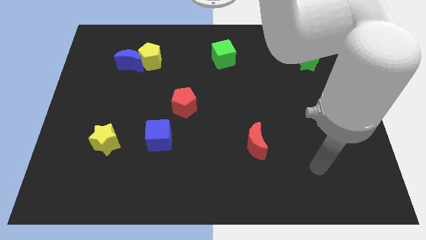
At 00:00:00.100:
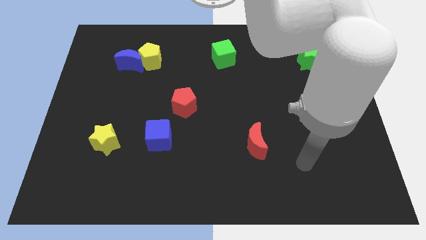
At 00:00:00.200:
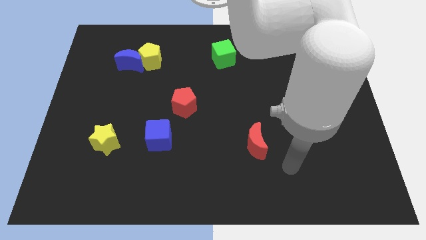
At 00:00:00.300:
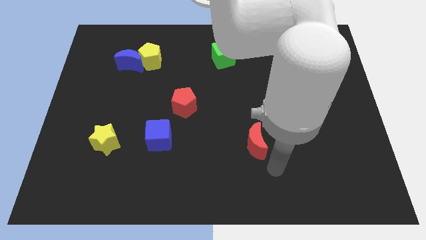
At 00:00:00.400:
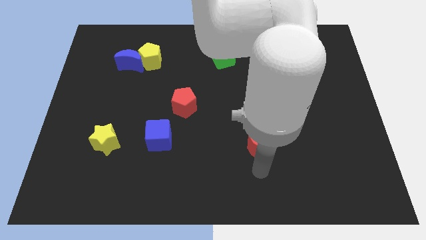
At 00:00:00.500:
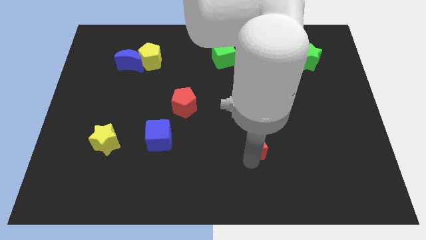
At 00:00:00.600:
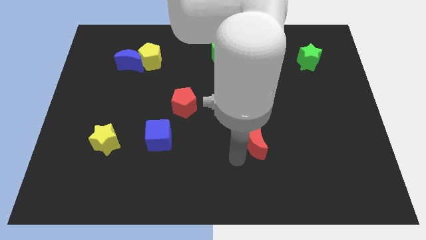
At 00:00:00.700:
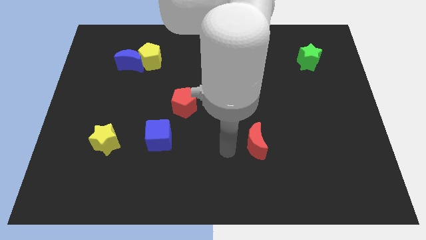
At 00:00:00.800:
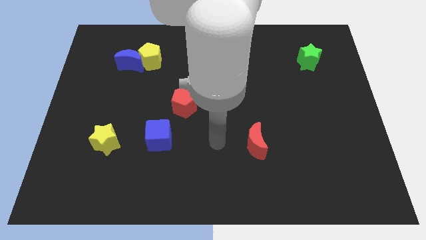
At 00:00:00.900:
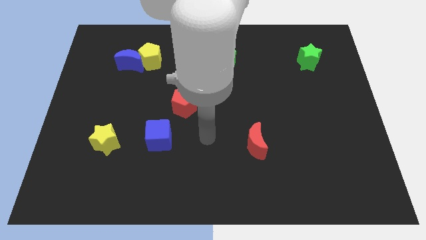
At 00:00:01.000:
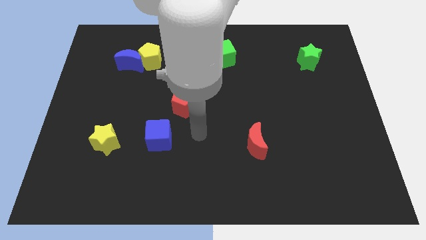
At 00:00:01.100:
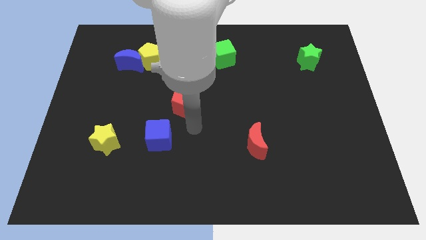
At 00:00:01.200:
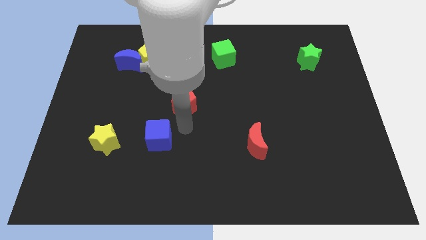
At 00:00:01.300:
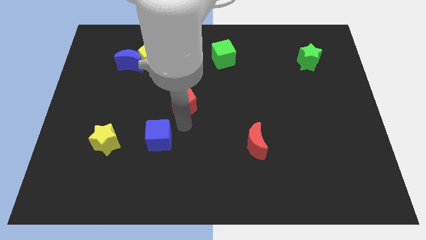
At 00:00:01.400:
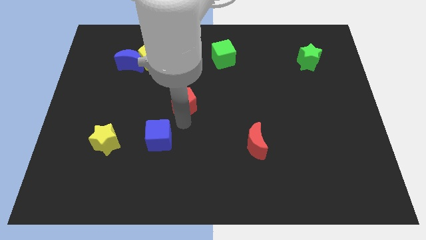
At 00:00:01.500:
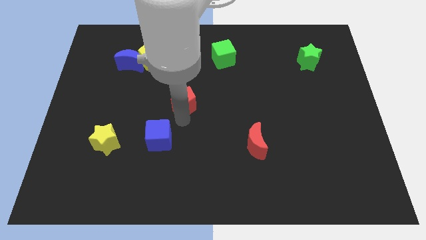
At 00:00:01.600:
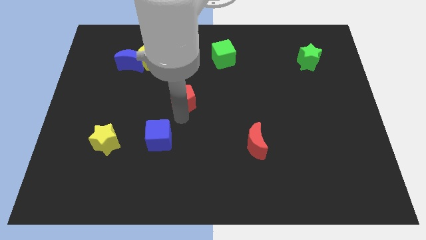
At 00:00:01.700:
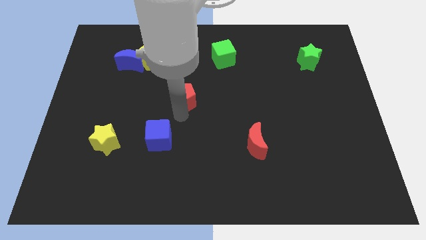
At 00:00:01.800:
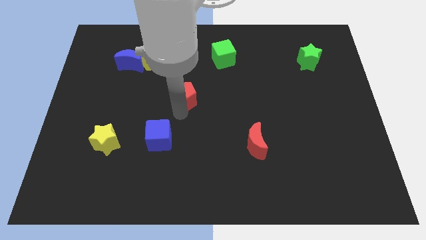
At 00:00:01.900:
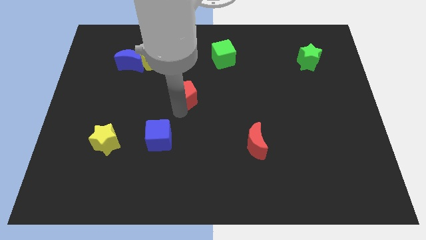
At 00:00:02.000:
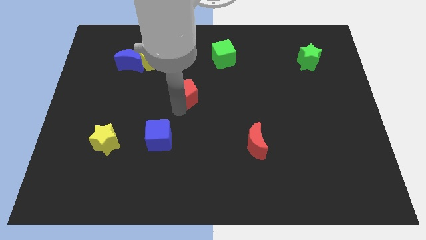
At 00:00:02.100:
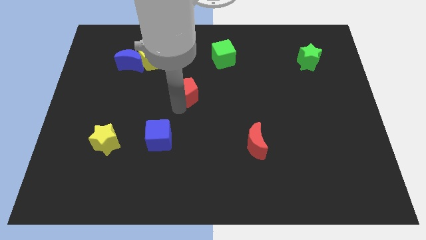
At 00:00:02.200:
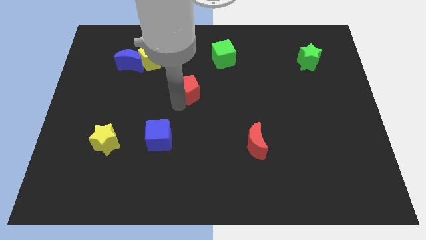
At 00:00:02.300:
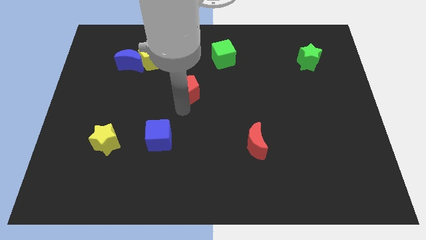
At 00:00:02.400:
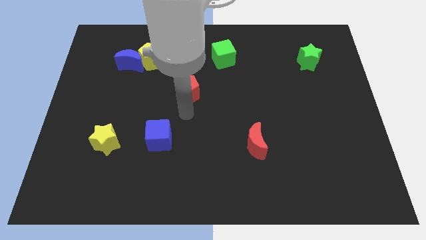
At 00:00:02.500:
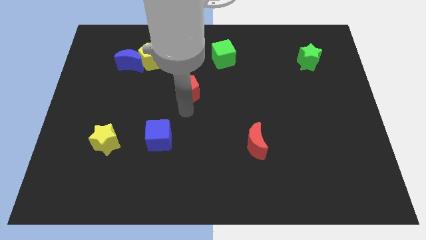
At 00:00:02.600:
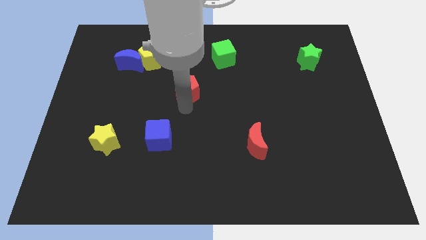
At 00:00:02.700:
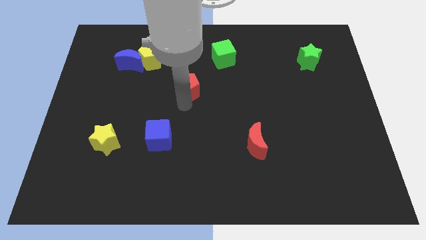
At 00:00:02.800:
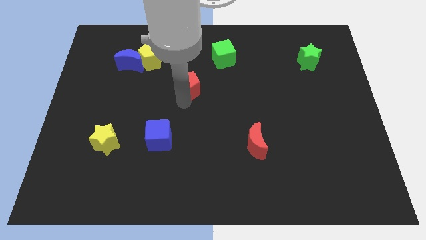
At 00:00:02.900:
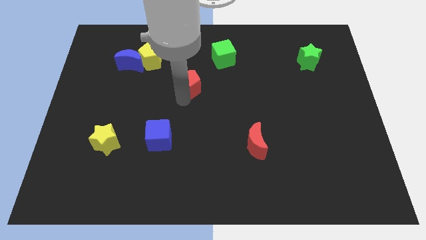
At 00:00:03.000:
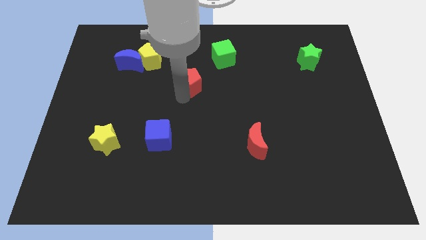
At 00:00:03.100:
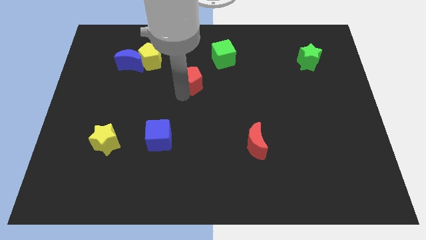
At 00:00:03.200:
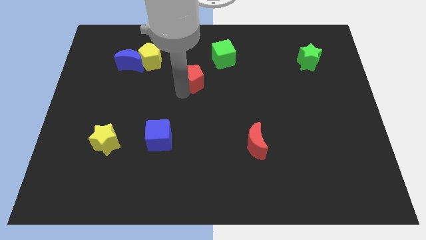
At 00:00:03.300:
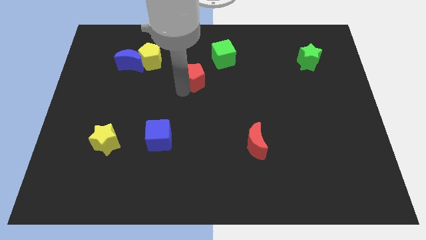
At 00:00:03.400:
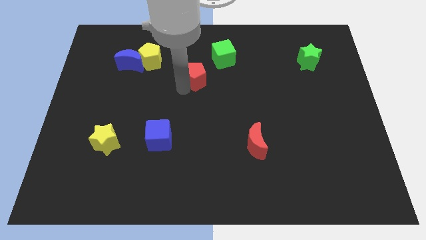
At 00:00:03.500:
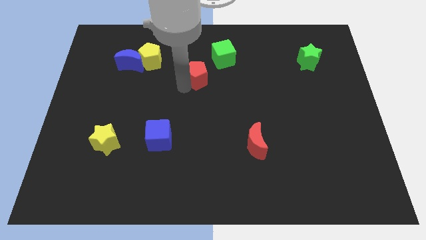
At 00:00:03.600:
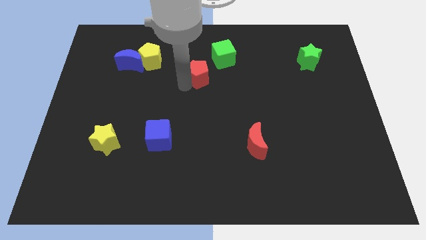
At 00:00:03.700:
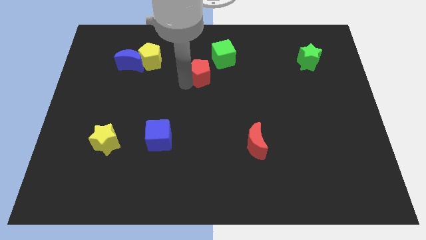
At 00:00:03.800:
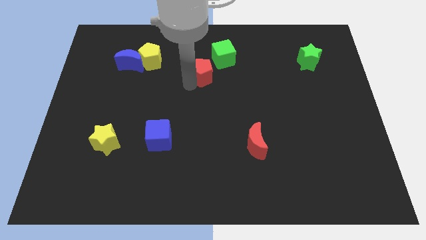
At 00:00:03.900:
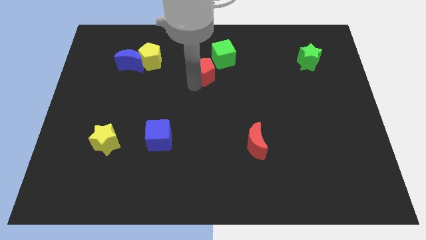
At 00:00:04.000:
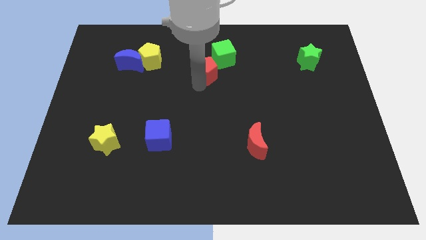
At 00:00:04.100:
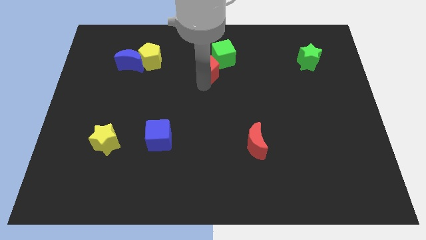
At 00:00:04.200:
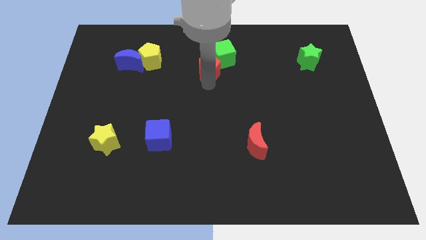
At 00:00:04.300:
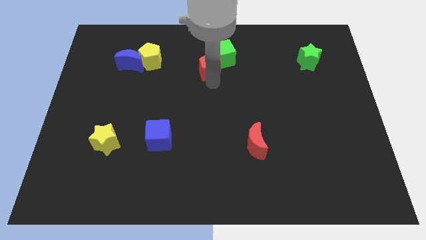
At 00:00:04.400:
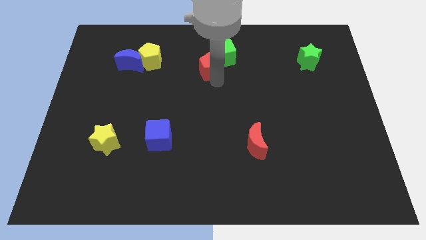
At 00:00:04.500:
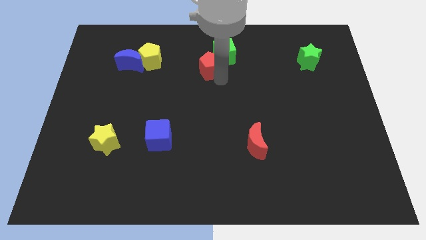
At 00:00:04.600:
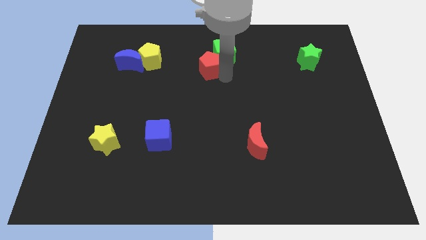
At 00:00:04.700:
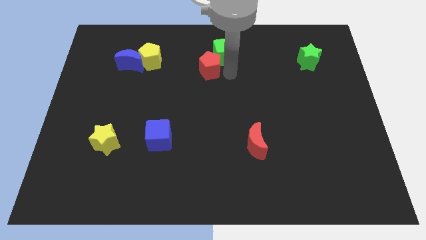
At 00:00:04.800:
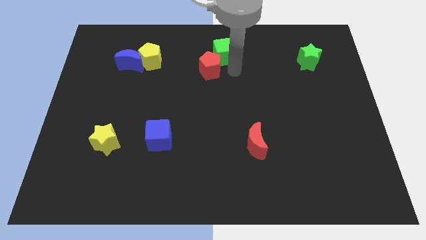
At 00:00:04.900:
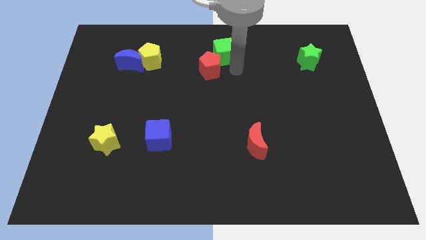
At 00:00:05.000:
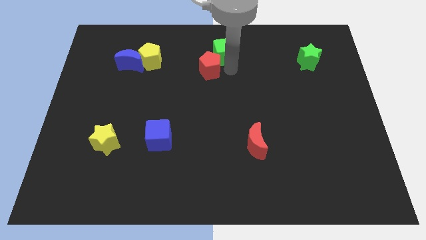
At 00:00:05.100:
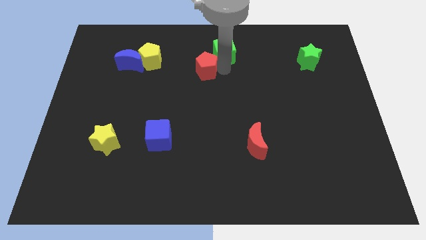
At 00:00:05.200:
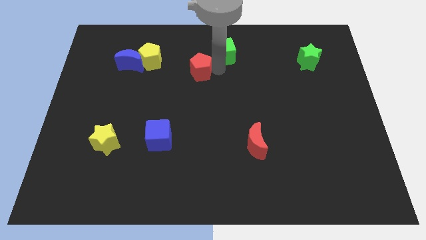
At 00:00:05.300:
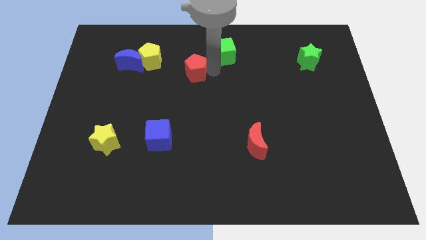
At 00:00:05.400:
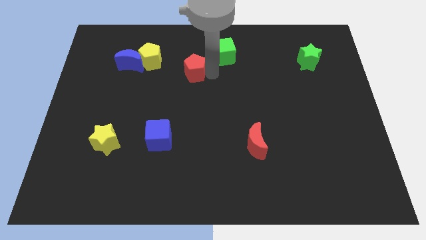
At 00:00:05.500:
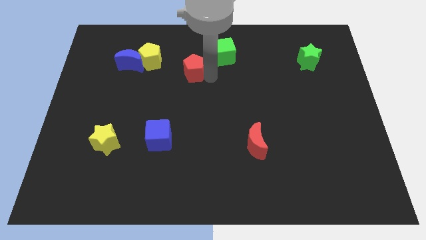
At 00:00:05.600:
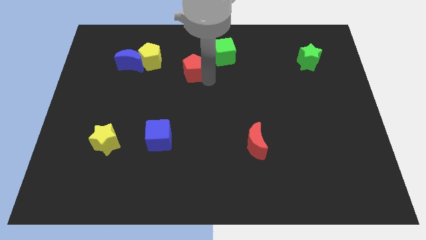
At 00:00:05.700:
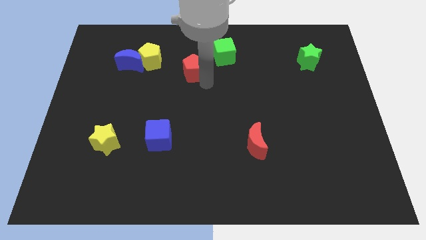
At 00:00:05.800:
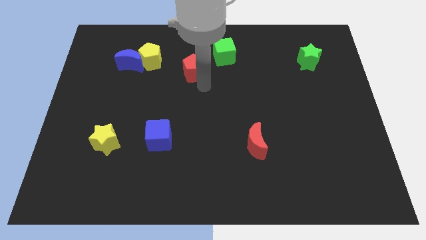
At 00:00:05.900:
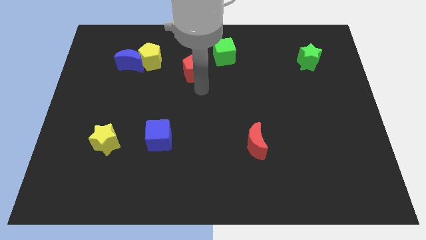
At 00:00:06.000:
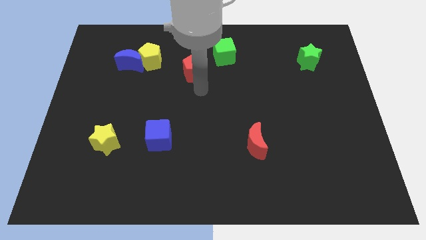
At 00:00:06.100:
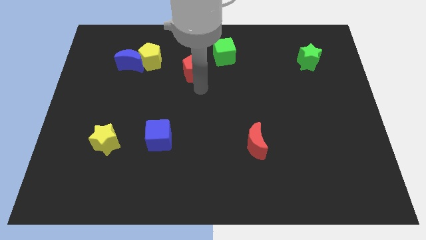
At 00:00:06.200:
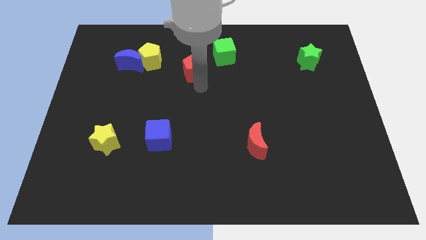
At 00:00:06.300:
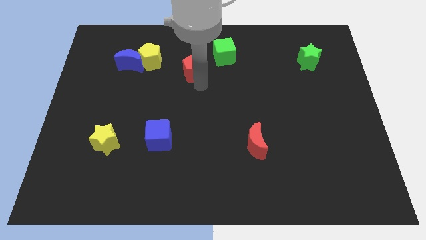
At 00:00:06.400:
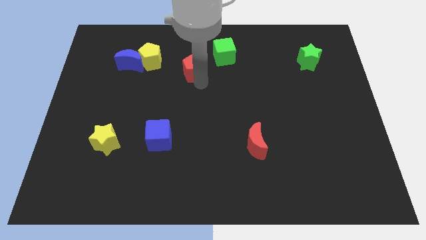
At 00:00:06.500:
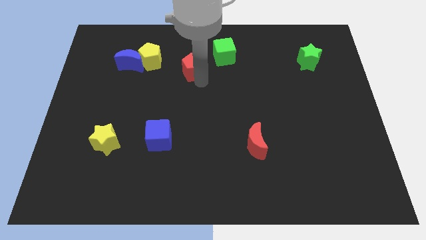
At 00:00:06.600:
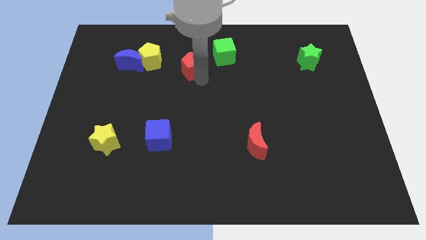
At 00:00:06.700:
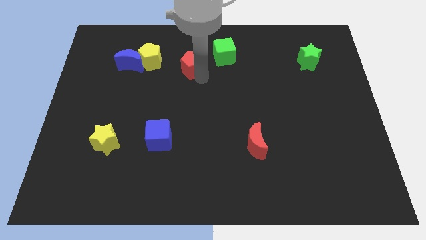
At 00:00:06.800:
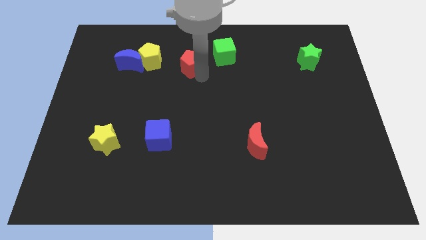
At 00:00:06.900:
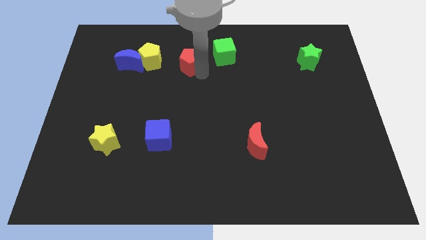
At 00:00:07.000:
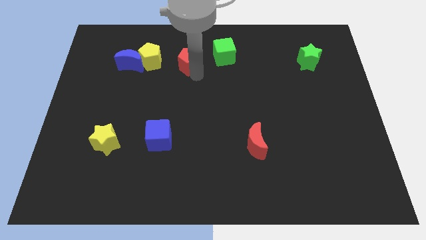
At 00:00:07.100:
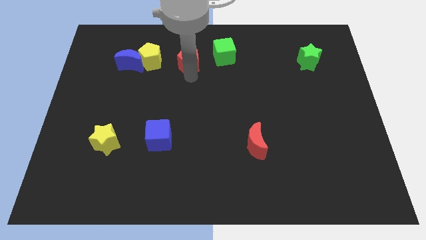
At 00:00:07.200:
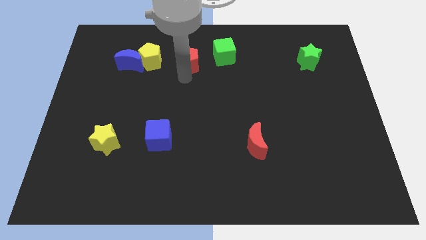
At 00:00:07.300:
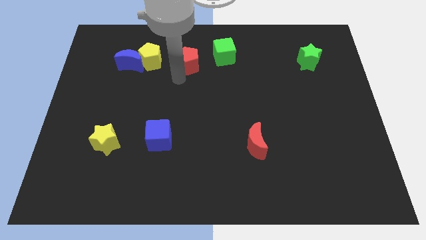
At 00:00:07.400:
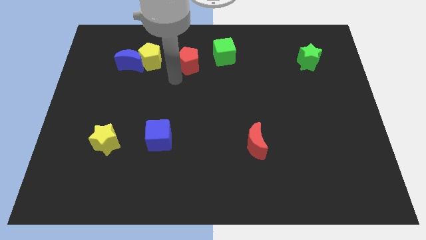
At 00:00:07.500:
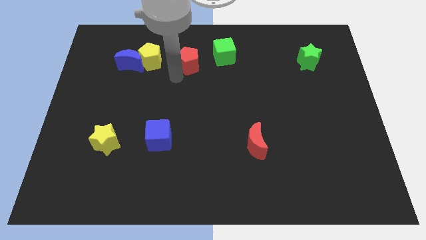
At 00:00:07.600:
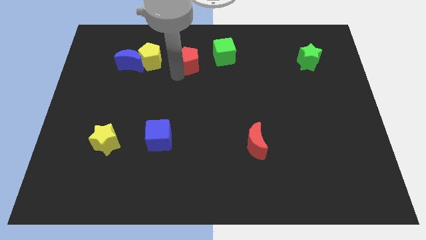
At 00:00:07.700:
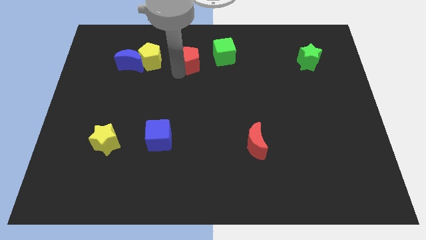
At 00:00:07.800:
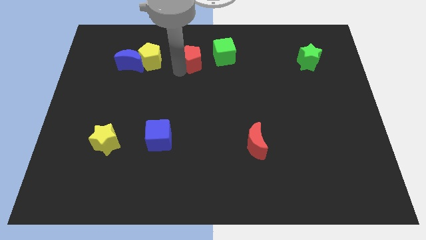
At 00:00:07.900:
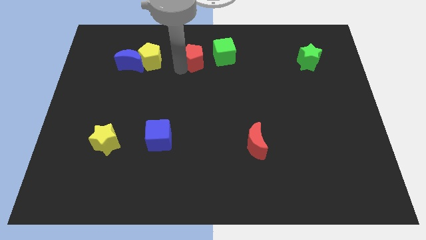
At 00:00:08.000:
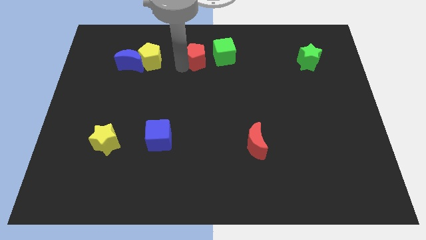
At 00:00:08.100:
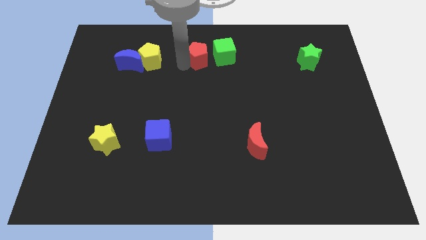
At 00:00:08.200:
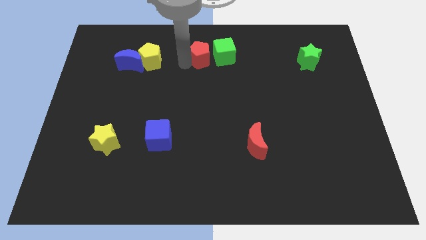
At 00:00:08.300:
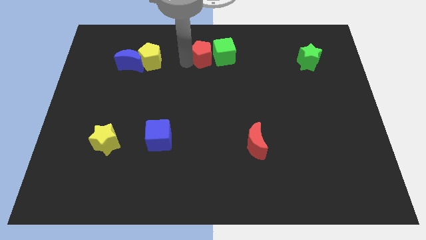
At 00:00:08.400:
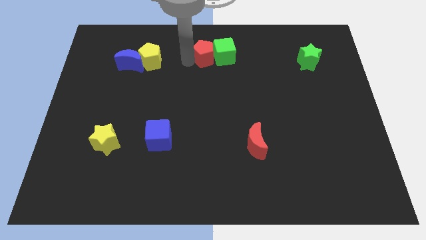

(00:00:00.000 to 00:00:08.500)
slide the red pentagon to the top side
